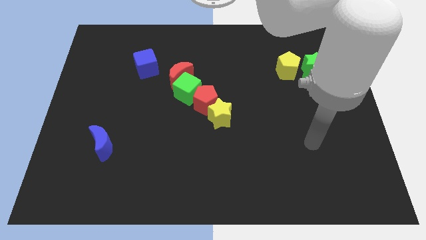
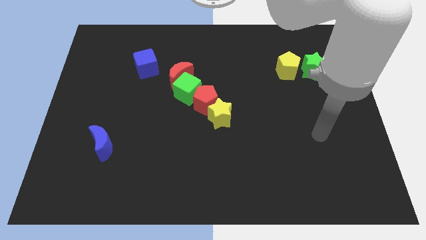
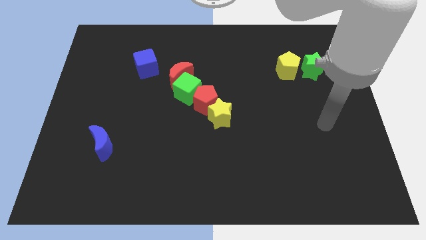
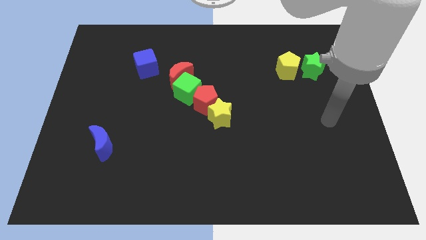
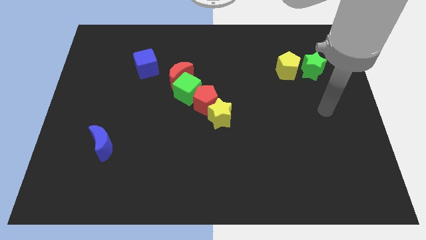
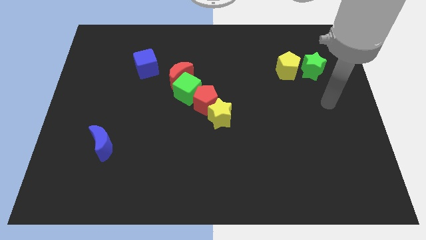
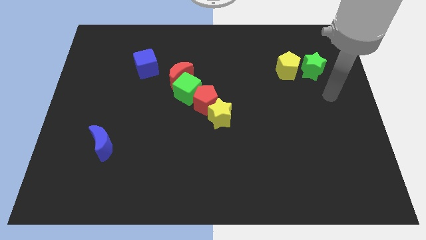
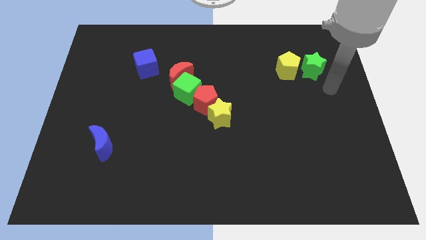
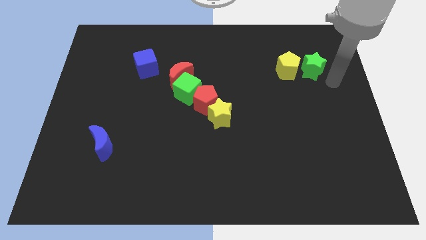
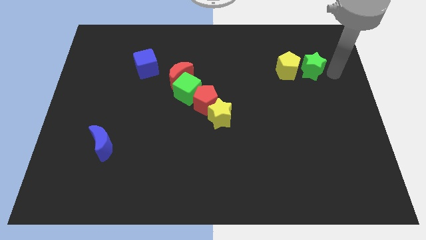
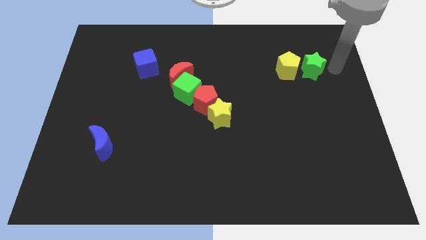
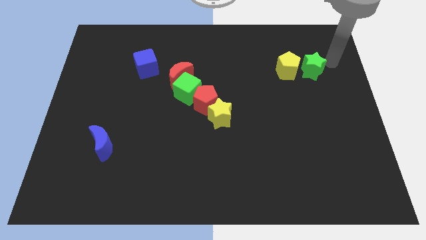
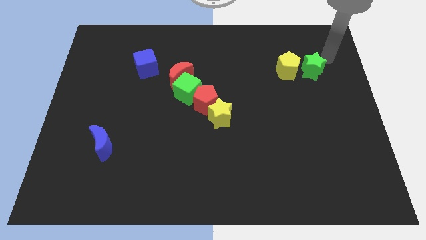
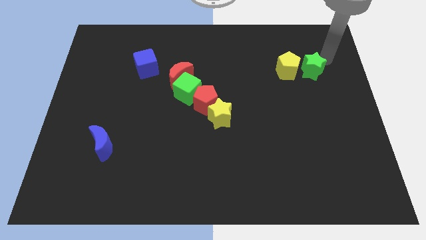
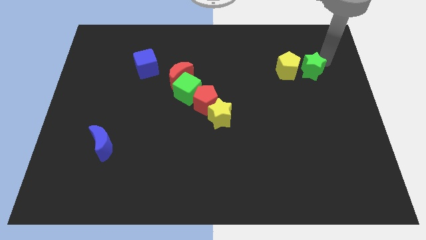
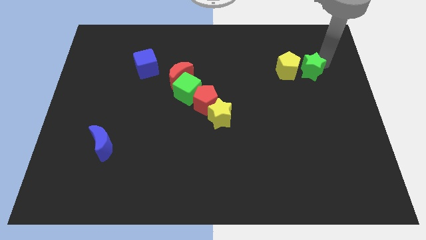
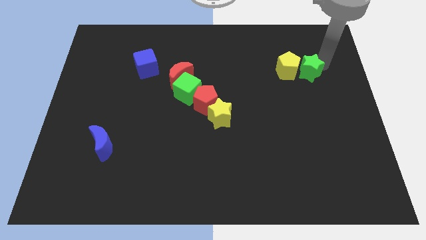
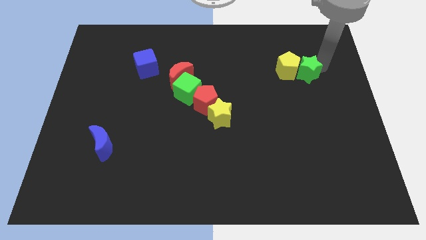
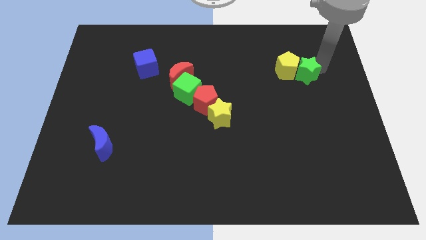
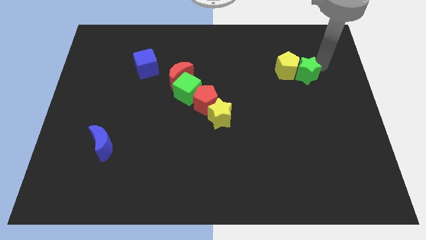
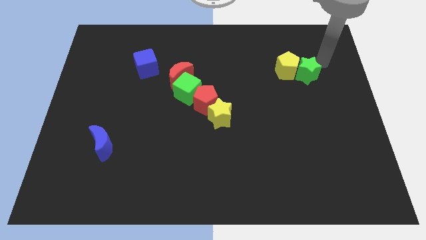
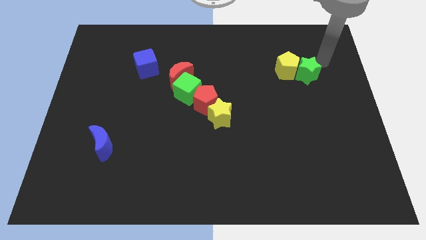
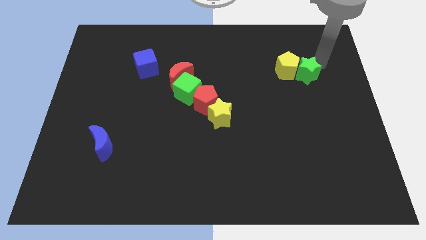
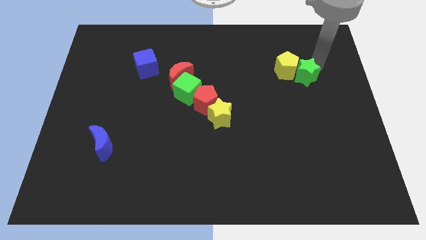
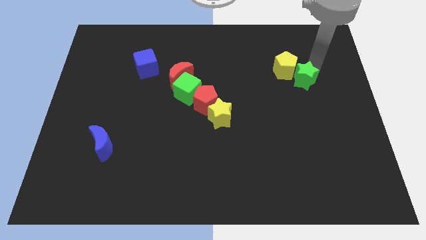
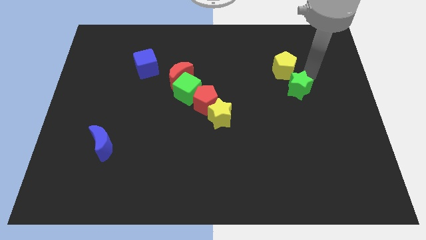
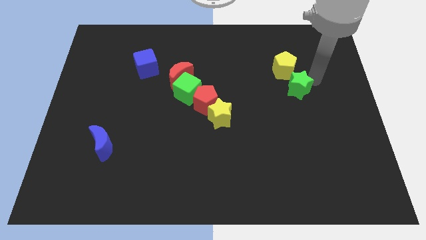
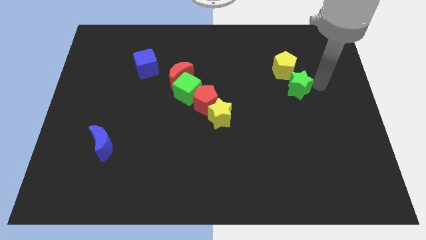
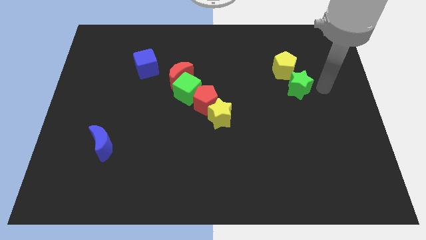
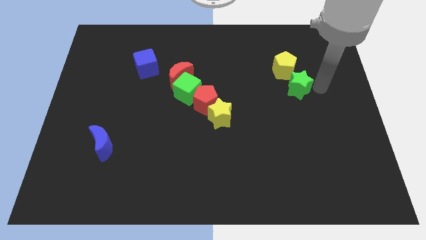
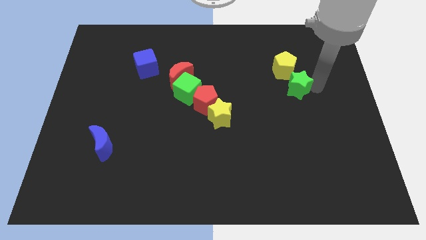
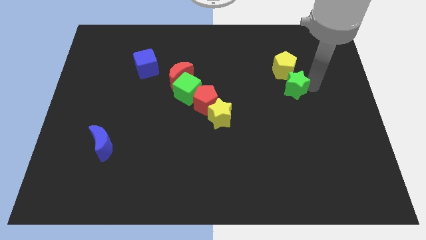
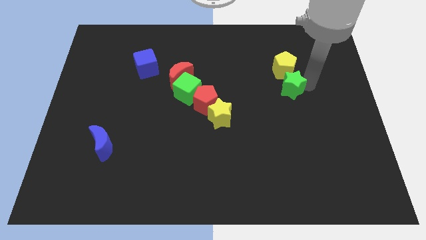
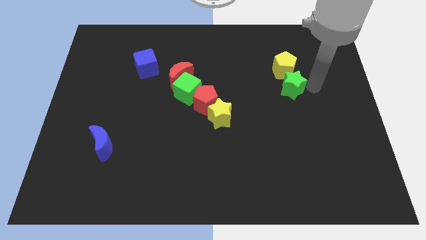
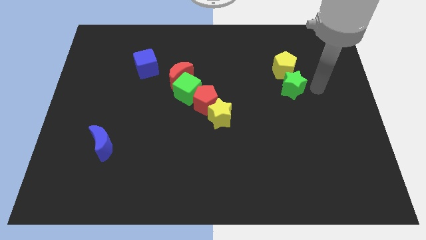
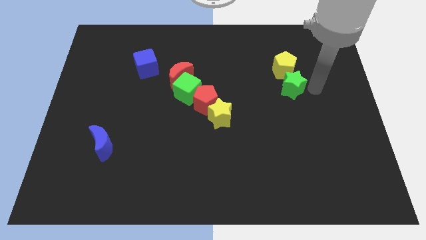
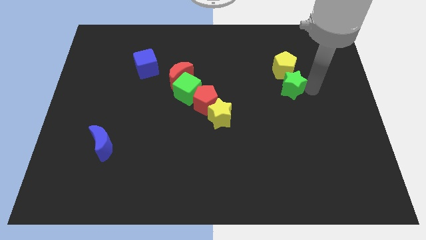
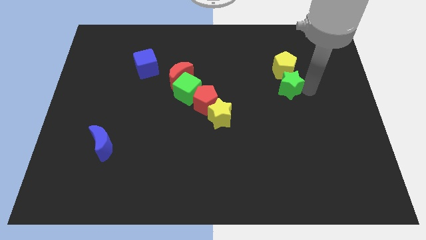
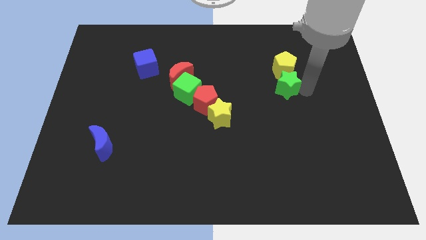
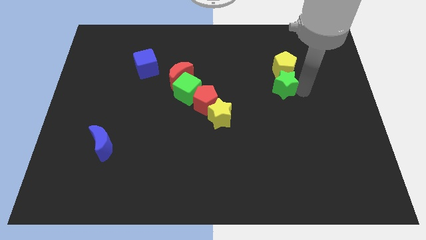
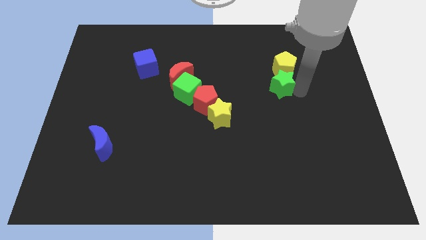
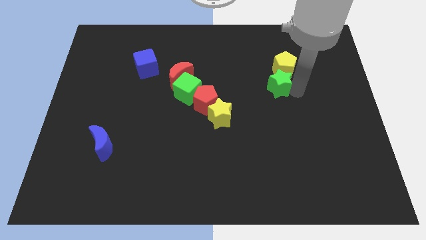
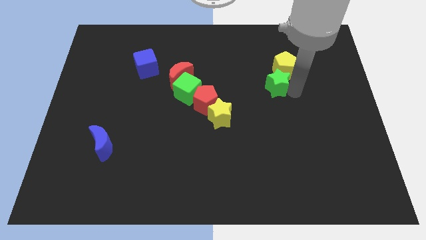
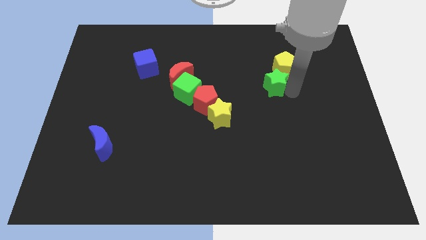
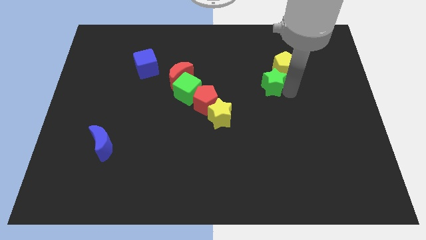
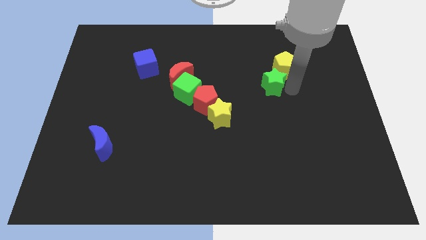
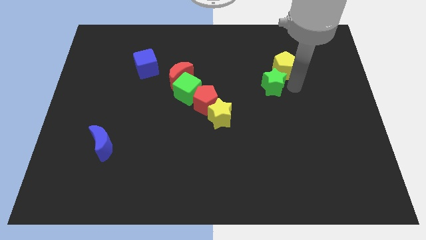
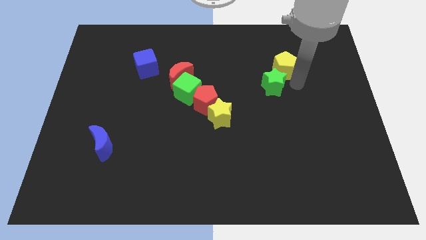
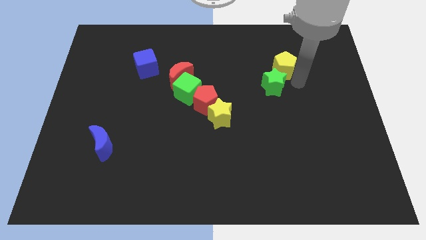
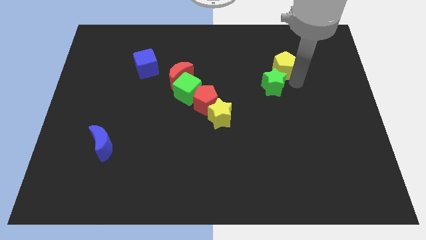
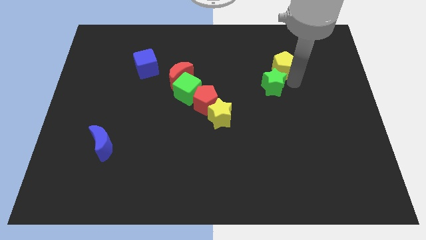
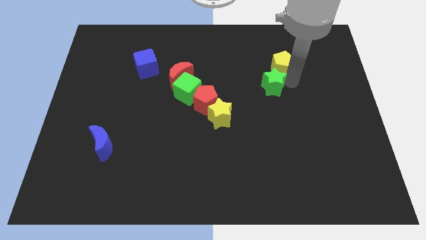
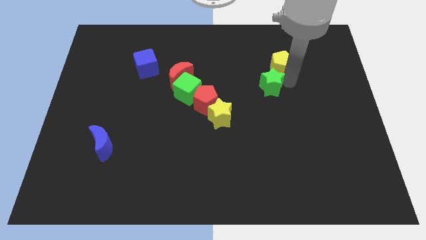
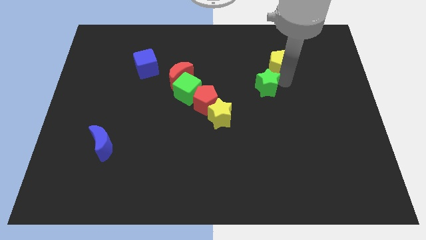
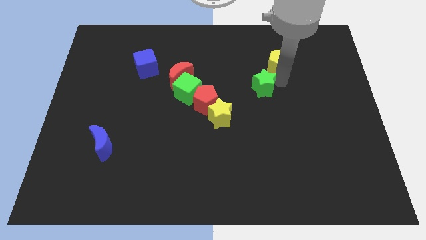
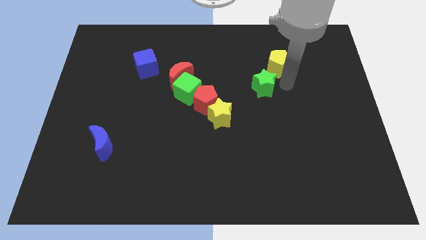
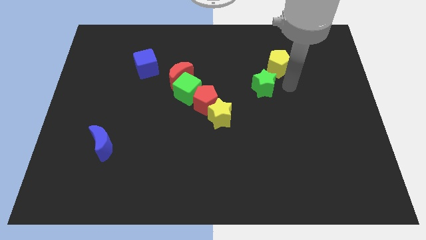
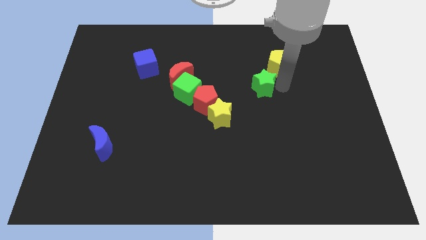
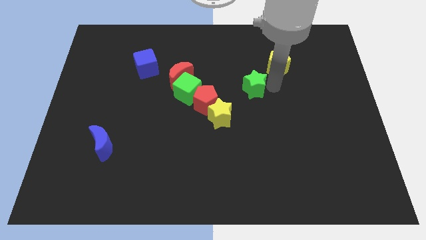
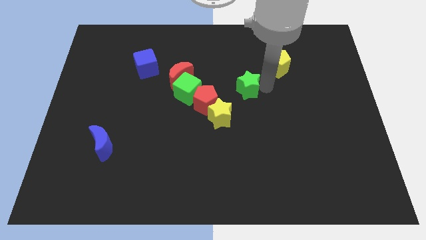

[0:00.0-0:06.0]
push the green star to the top right side of the red pentagon

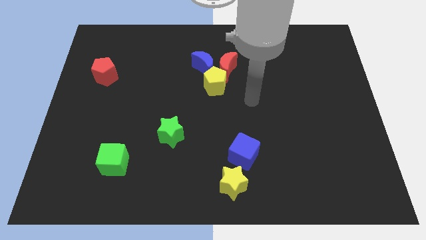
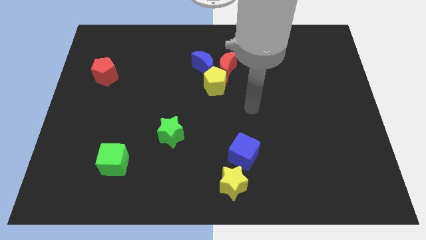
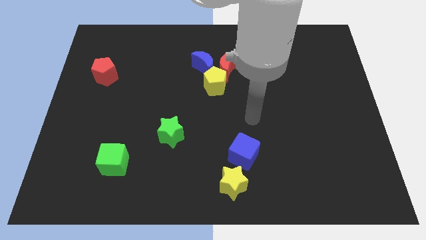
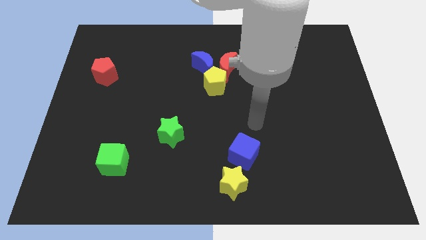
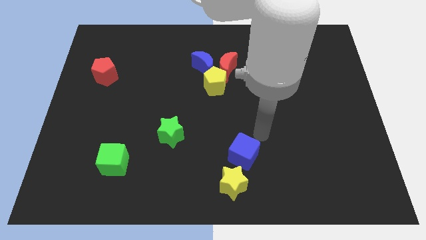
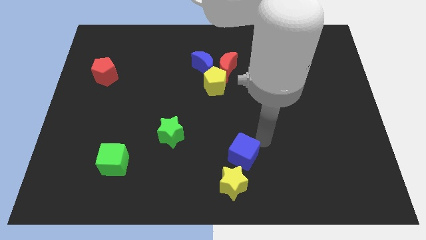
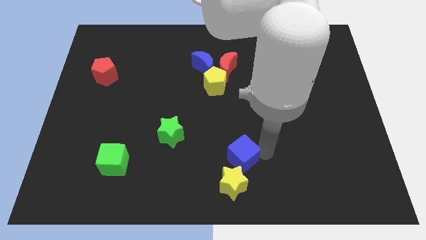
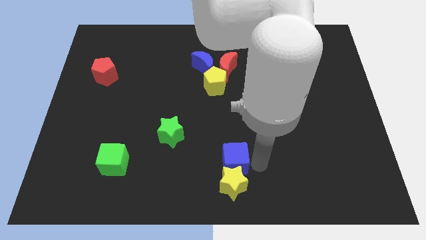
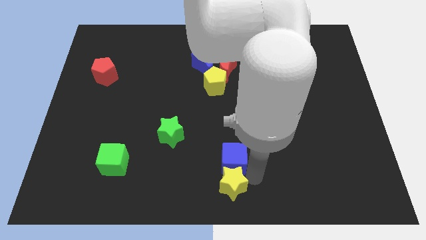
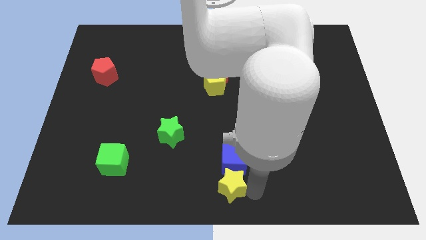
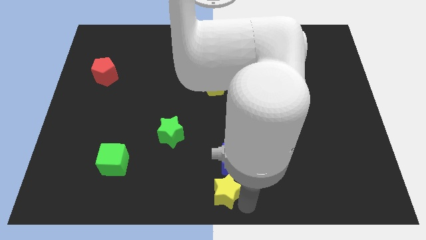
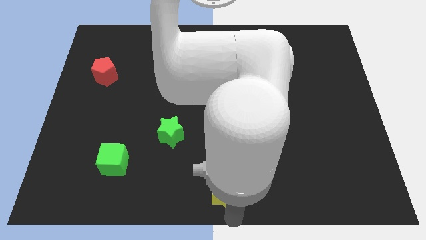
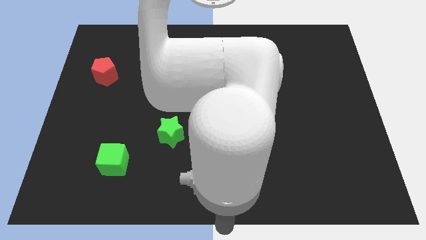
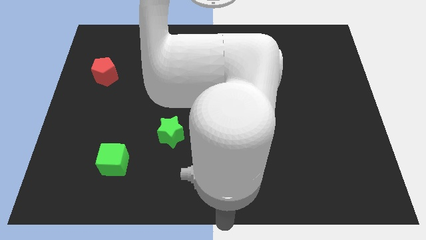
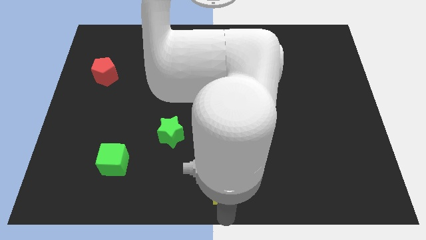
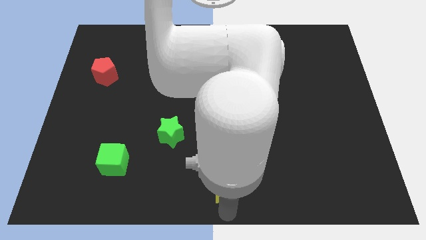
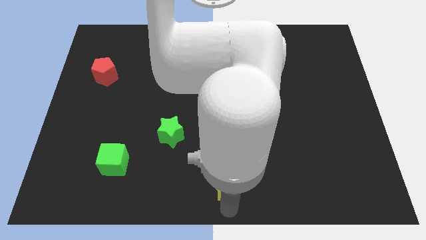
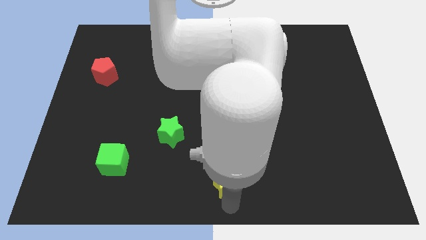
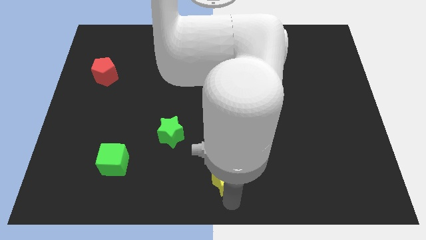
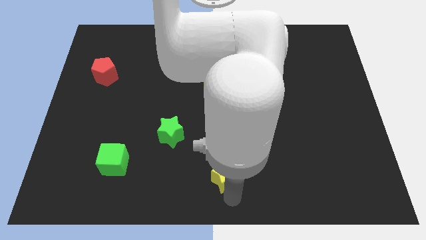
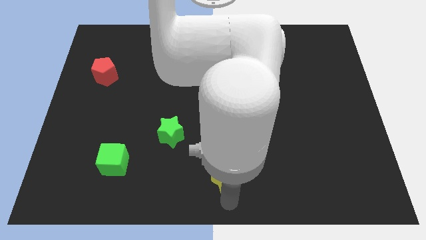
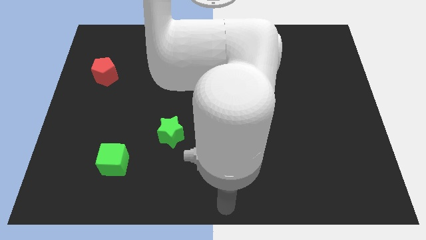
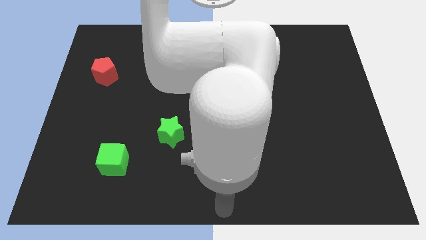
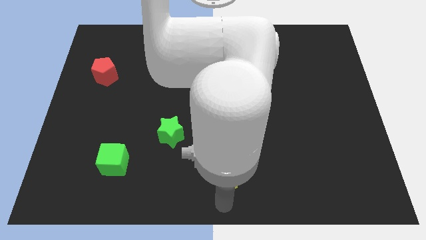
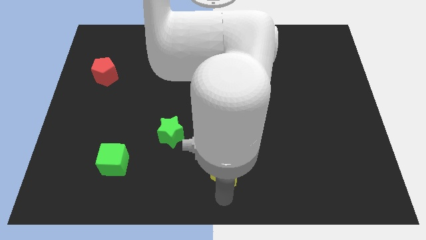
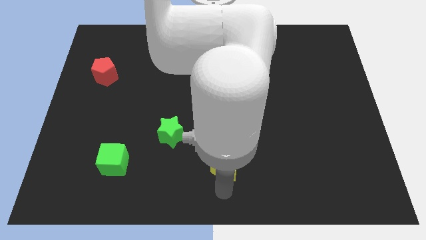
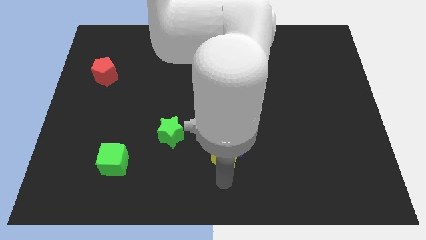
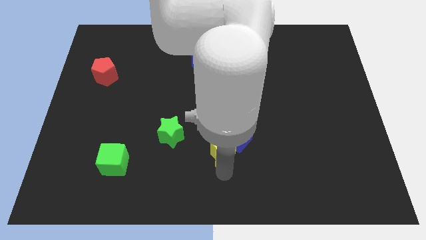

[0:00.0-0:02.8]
slide the yellow star just right of the green star
